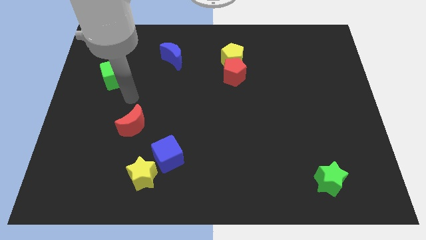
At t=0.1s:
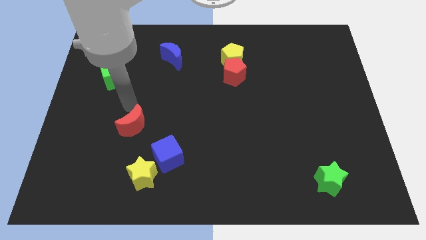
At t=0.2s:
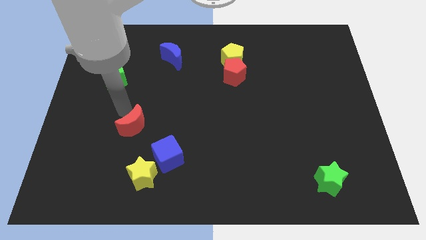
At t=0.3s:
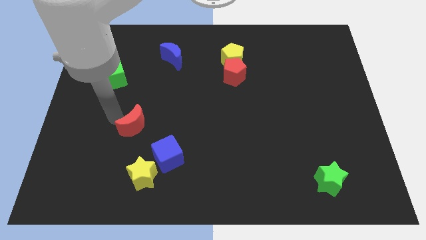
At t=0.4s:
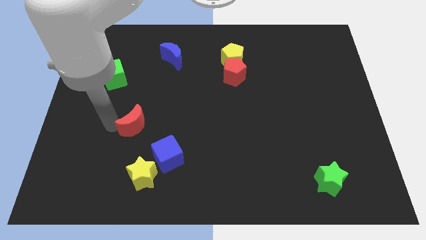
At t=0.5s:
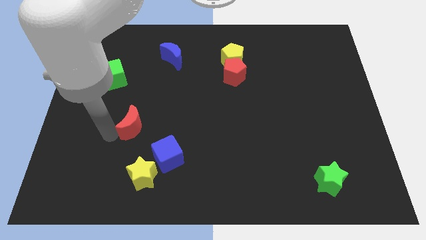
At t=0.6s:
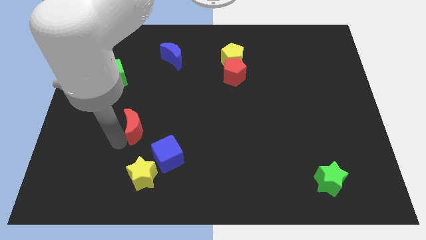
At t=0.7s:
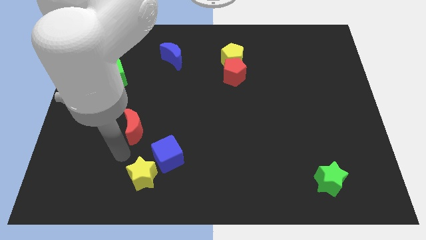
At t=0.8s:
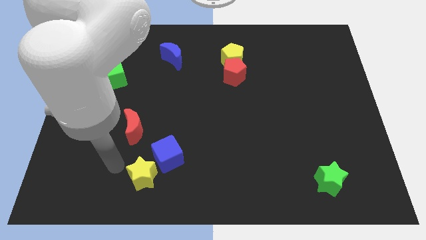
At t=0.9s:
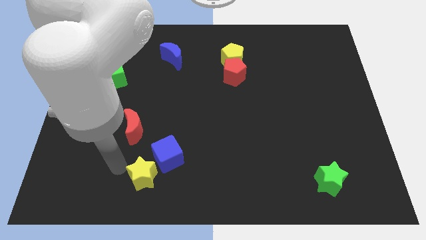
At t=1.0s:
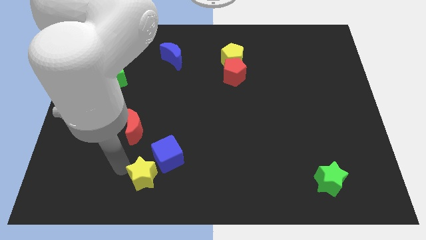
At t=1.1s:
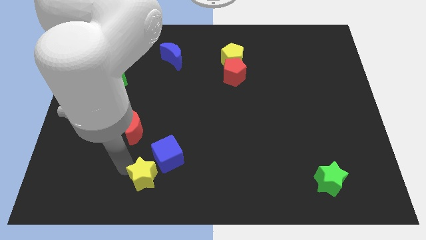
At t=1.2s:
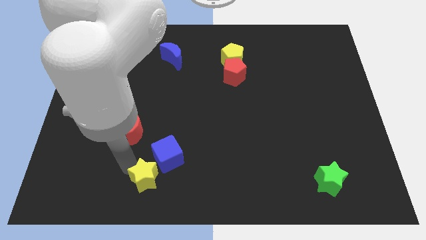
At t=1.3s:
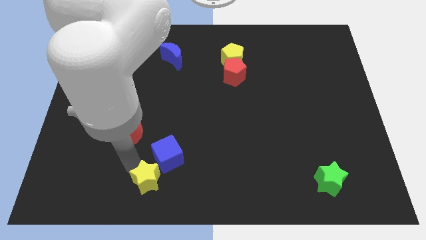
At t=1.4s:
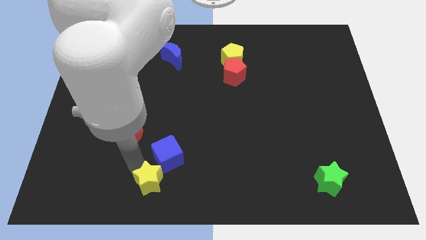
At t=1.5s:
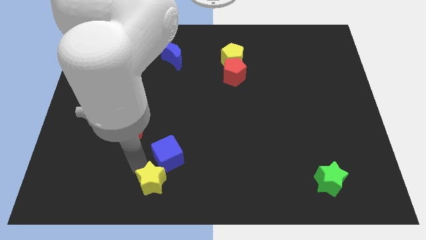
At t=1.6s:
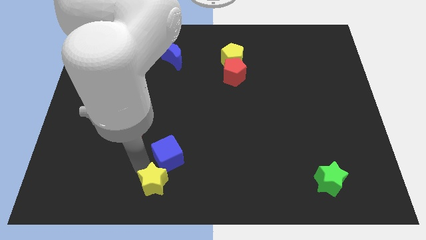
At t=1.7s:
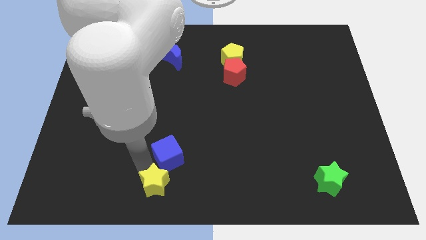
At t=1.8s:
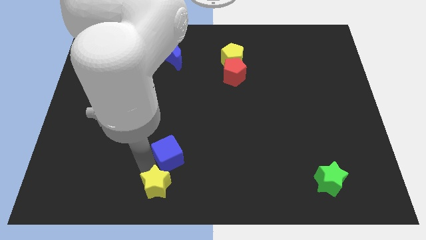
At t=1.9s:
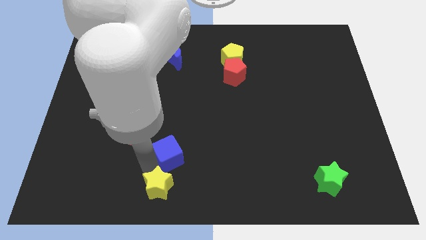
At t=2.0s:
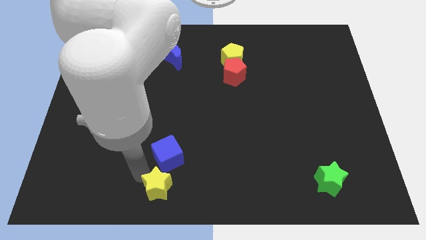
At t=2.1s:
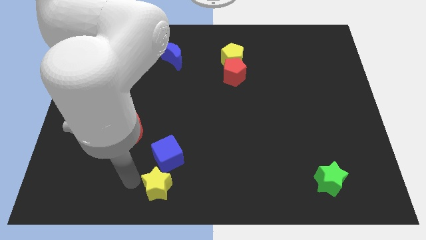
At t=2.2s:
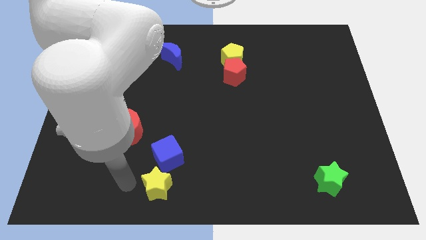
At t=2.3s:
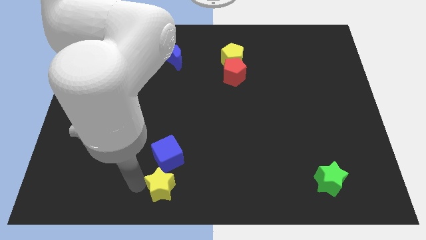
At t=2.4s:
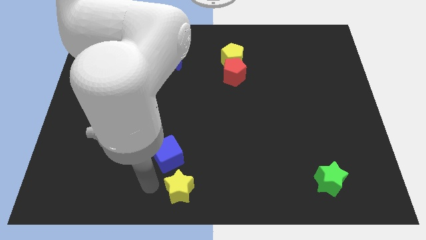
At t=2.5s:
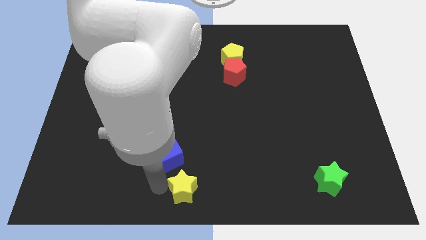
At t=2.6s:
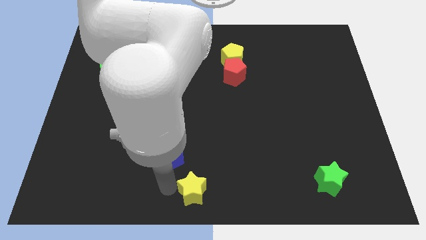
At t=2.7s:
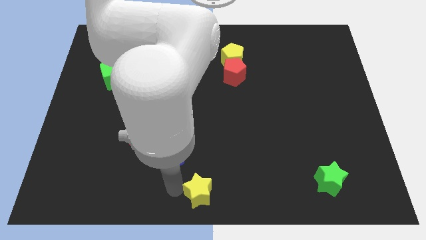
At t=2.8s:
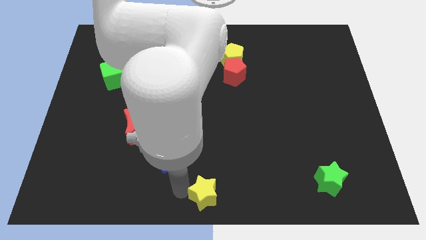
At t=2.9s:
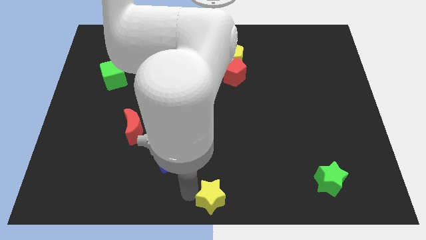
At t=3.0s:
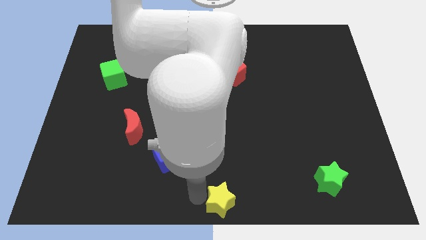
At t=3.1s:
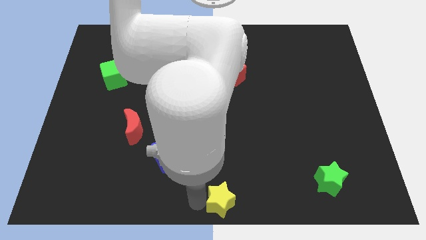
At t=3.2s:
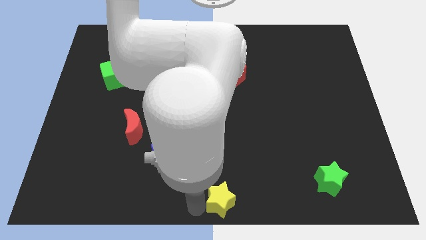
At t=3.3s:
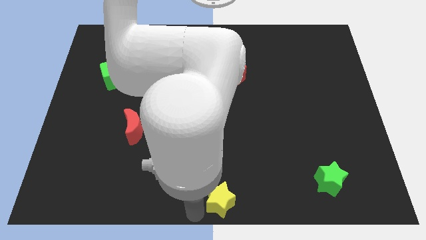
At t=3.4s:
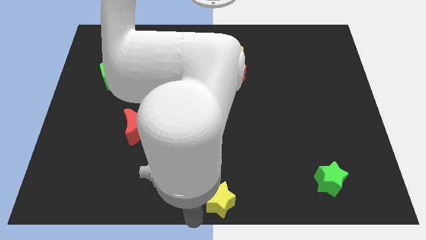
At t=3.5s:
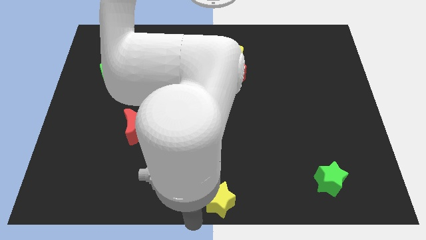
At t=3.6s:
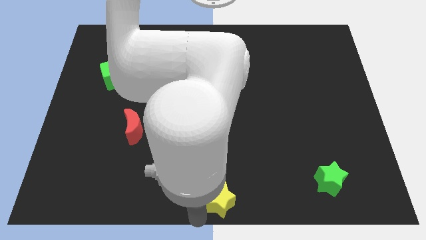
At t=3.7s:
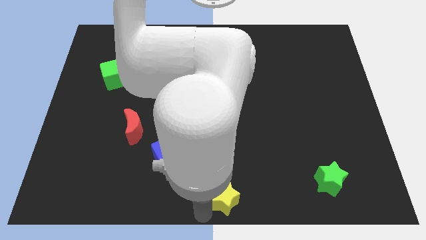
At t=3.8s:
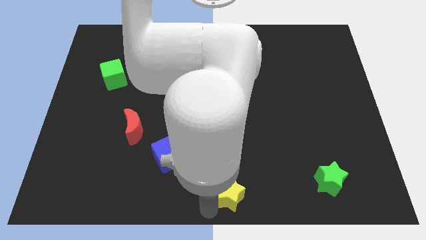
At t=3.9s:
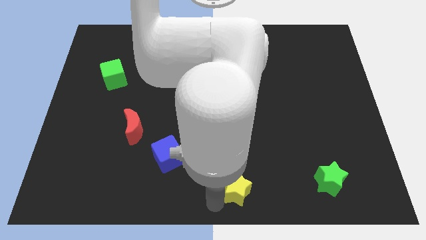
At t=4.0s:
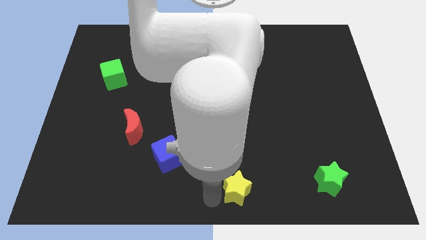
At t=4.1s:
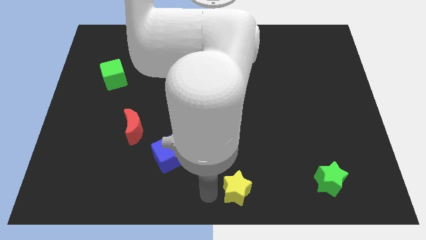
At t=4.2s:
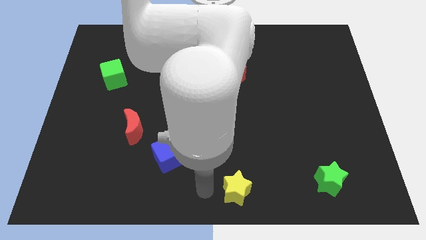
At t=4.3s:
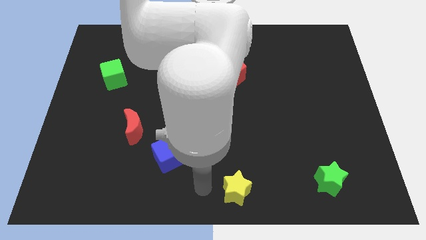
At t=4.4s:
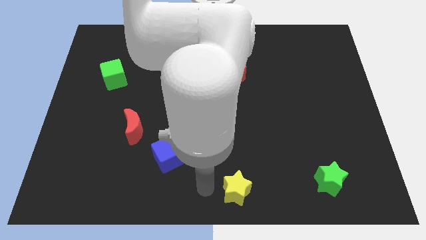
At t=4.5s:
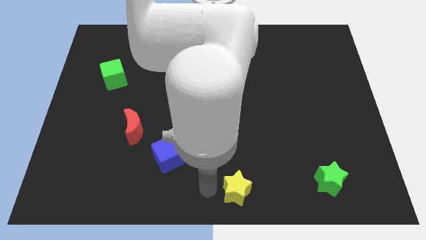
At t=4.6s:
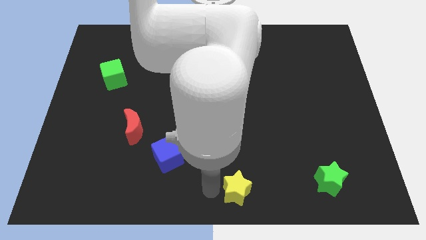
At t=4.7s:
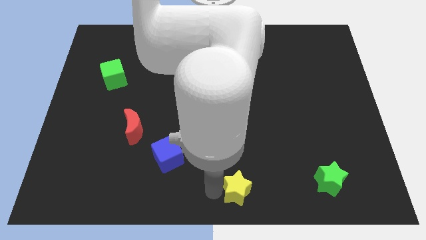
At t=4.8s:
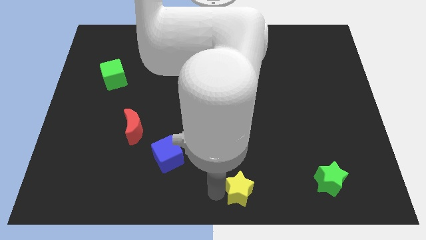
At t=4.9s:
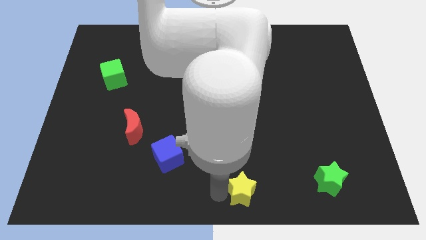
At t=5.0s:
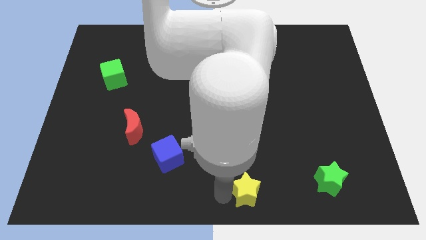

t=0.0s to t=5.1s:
move the yellow star to the right

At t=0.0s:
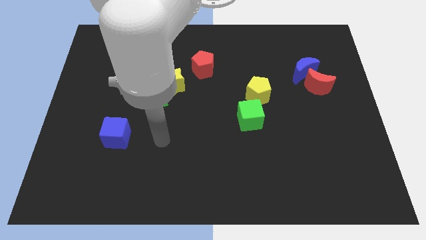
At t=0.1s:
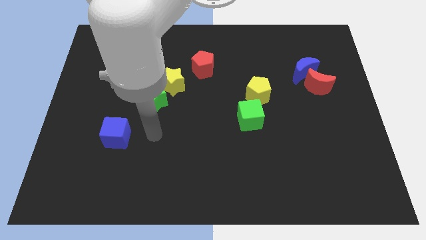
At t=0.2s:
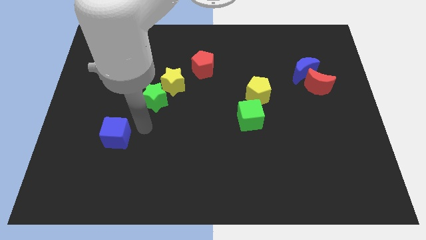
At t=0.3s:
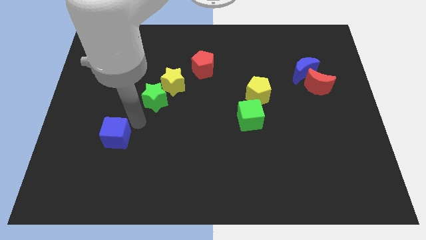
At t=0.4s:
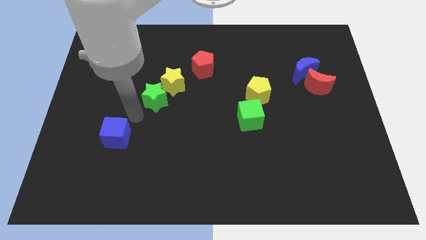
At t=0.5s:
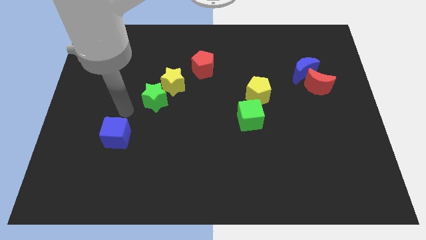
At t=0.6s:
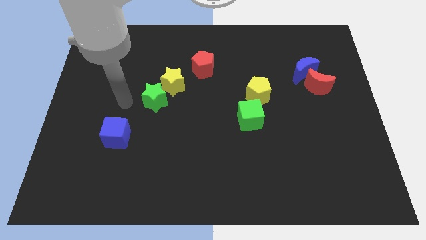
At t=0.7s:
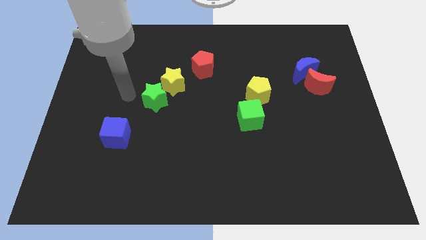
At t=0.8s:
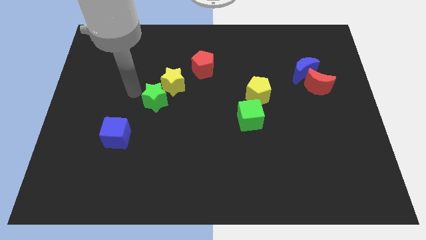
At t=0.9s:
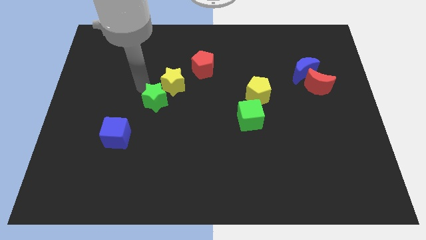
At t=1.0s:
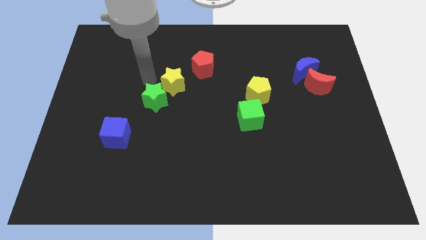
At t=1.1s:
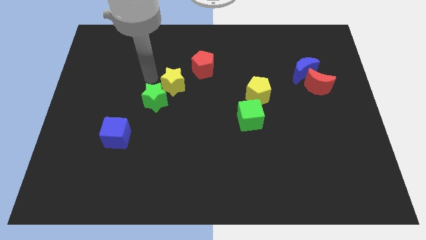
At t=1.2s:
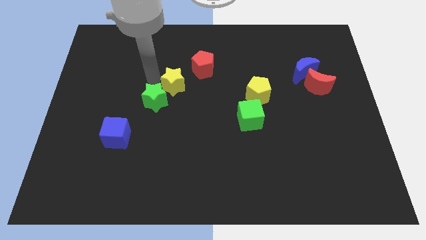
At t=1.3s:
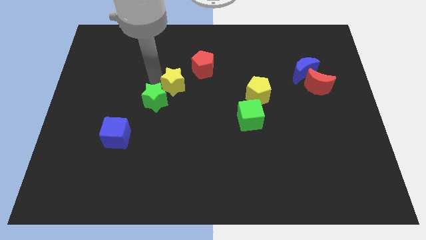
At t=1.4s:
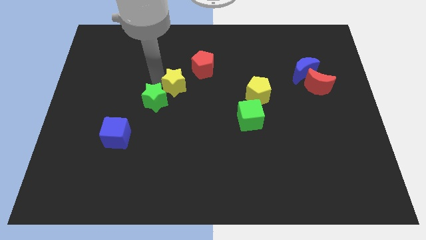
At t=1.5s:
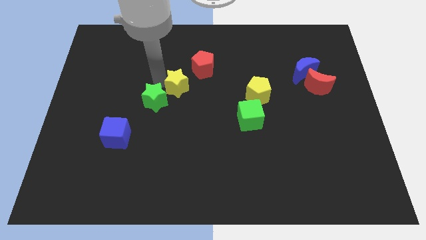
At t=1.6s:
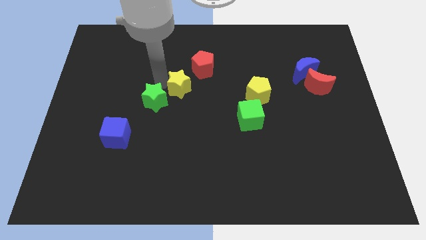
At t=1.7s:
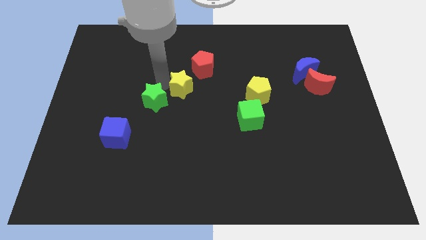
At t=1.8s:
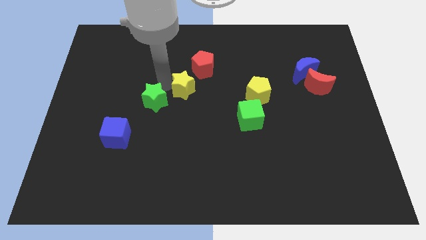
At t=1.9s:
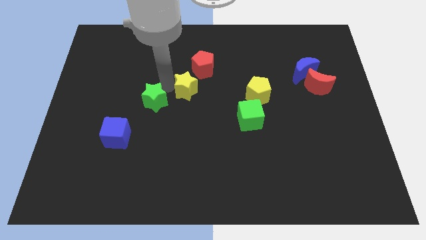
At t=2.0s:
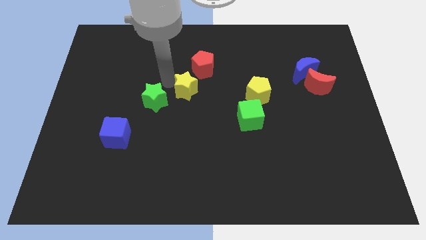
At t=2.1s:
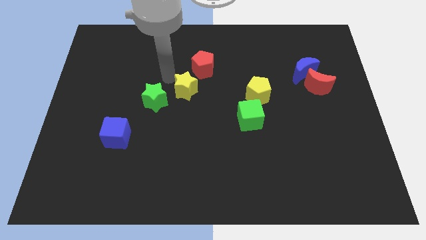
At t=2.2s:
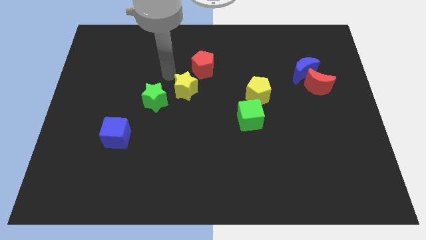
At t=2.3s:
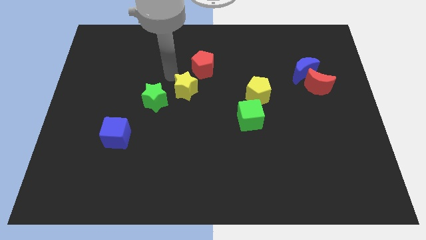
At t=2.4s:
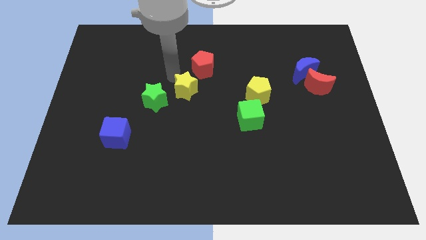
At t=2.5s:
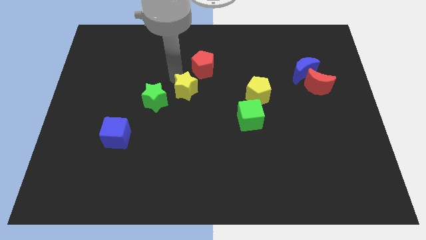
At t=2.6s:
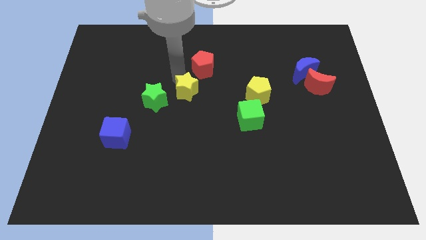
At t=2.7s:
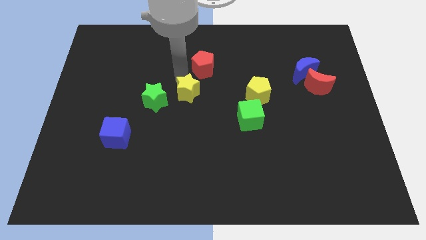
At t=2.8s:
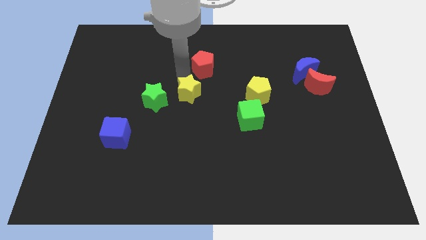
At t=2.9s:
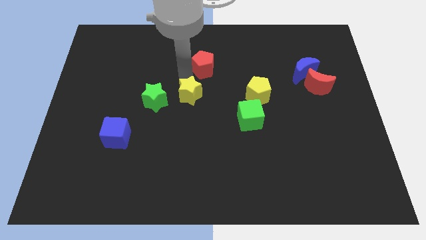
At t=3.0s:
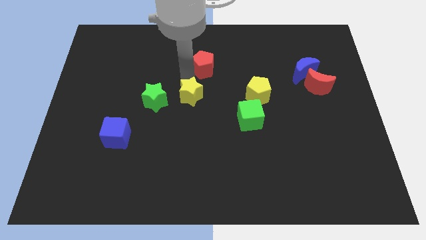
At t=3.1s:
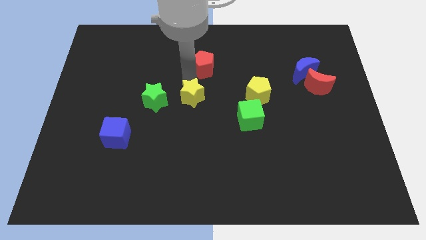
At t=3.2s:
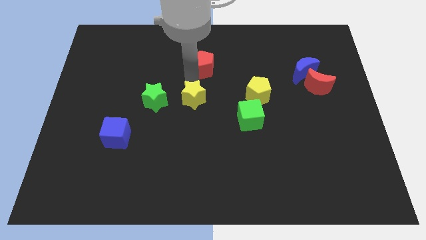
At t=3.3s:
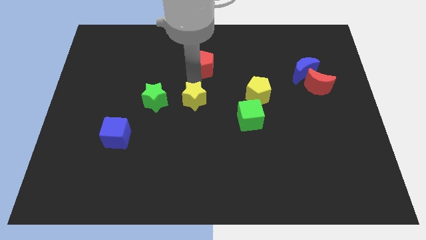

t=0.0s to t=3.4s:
slightly move the yellow star down and to the right diagonally
